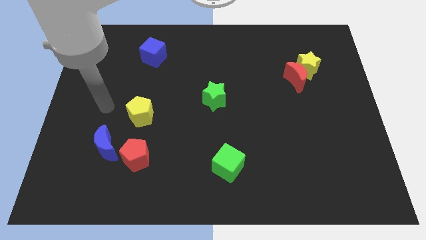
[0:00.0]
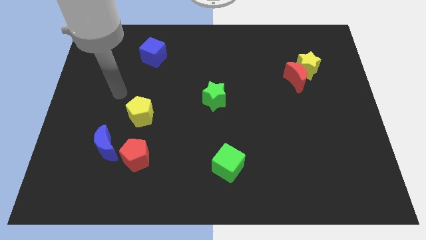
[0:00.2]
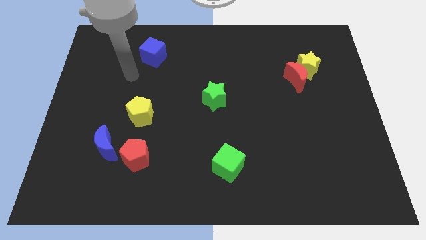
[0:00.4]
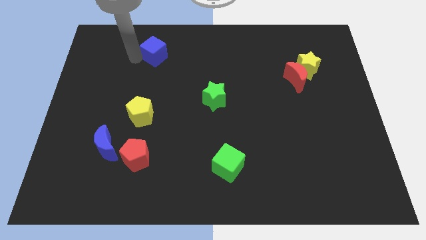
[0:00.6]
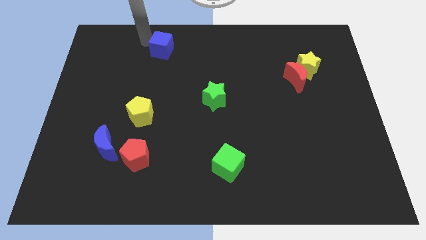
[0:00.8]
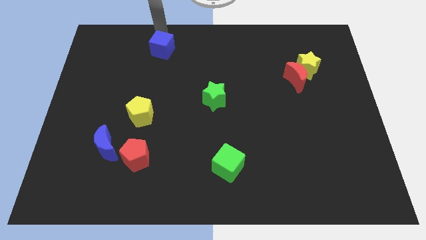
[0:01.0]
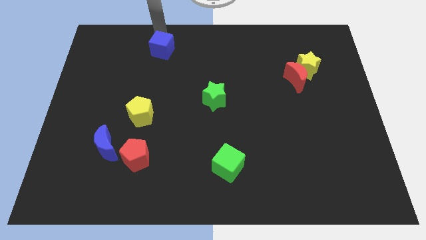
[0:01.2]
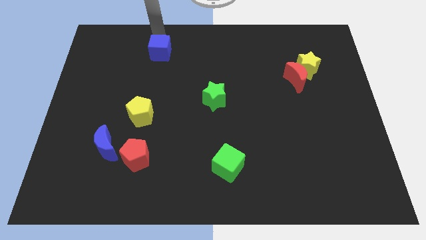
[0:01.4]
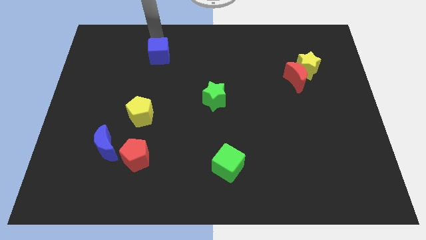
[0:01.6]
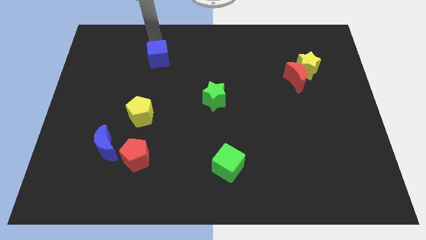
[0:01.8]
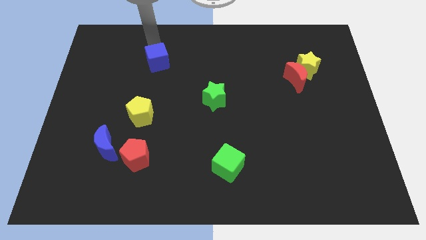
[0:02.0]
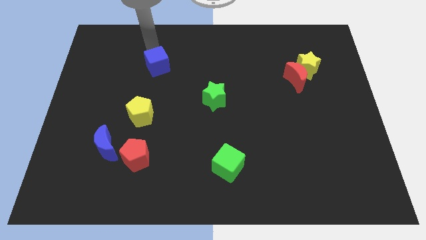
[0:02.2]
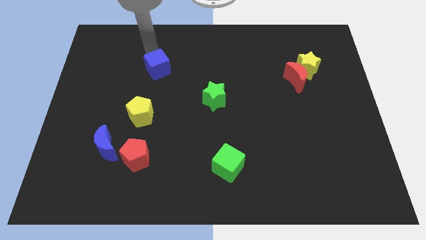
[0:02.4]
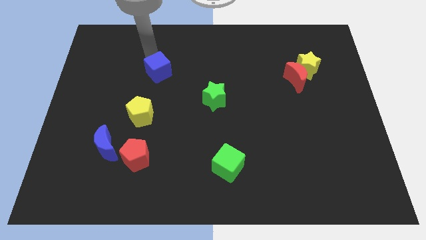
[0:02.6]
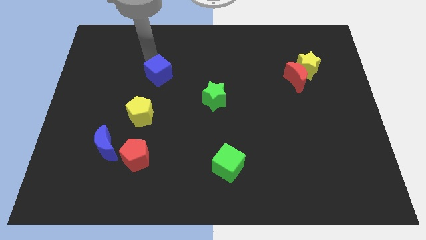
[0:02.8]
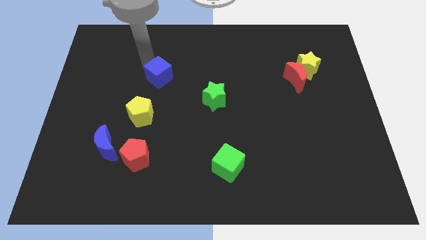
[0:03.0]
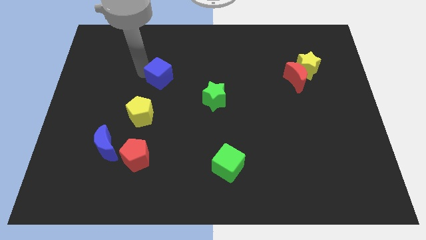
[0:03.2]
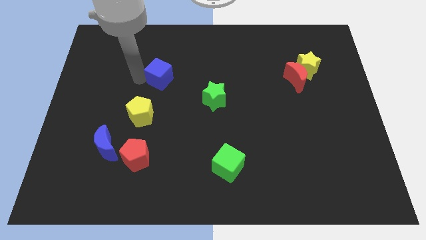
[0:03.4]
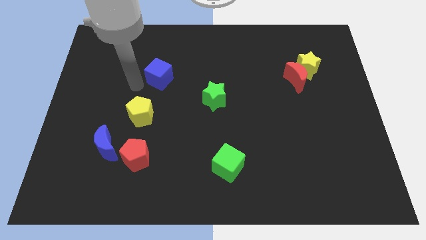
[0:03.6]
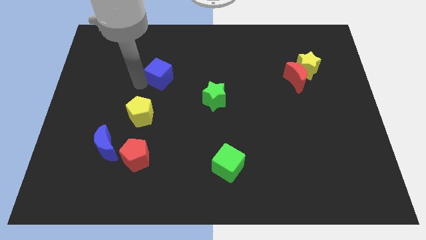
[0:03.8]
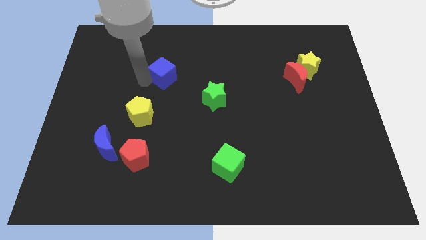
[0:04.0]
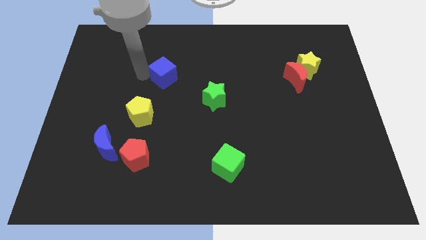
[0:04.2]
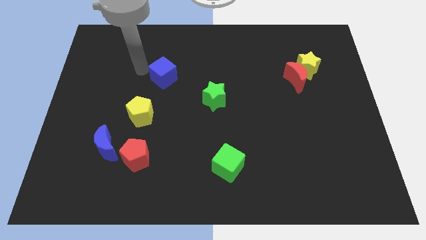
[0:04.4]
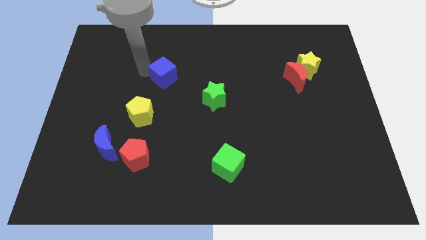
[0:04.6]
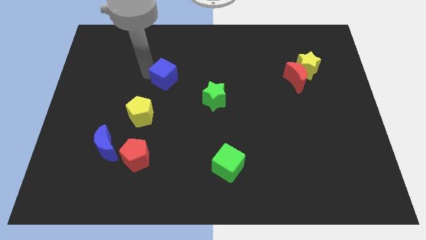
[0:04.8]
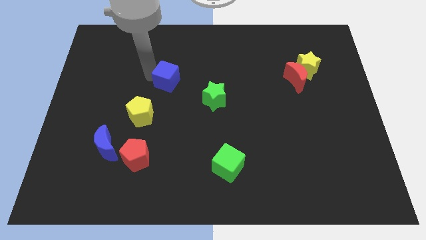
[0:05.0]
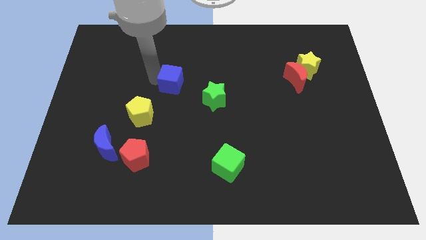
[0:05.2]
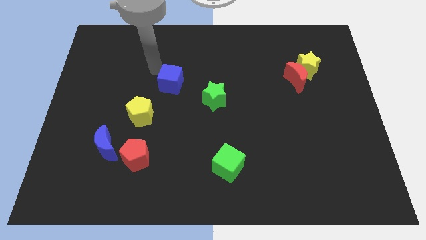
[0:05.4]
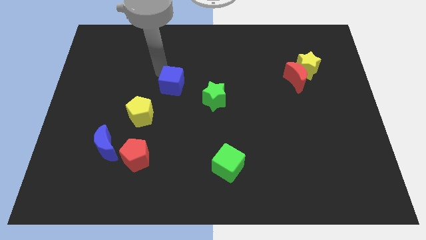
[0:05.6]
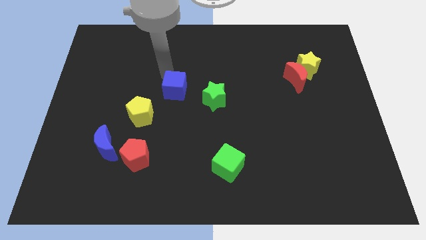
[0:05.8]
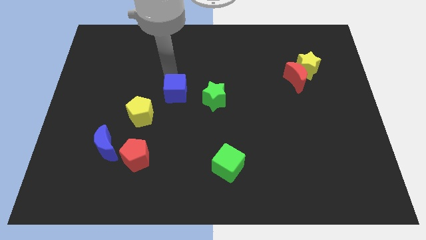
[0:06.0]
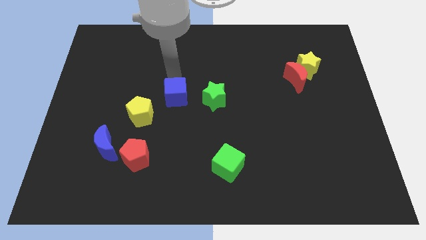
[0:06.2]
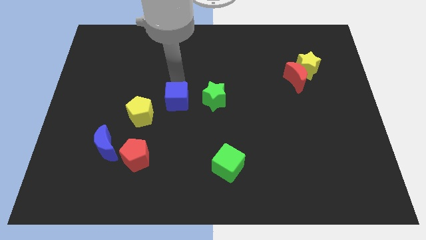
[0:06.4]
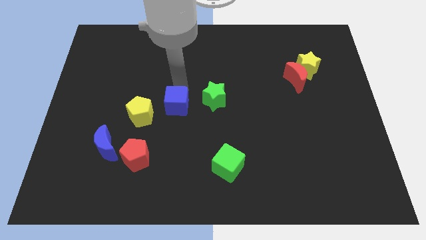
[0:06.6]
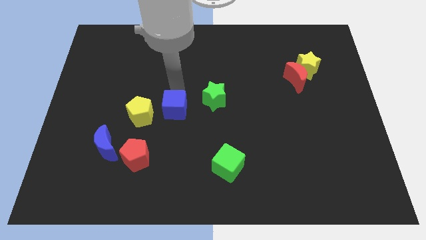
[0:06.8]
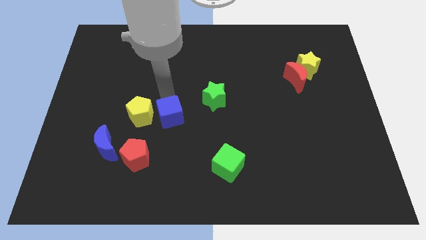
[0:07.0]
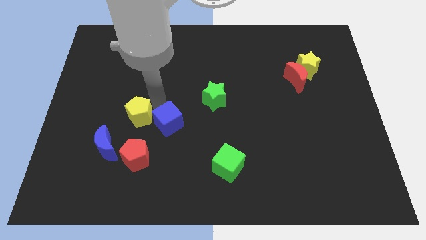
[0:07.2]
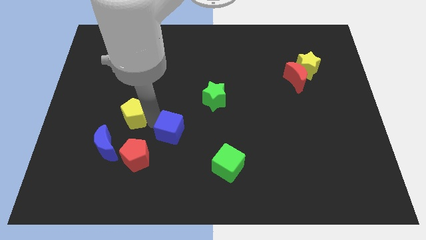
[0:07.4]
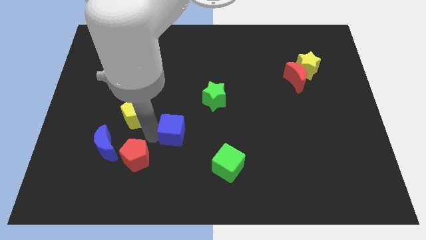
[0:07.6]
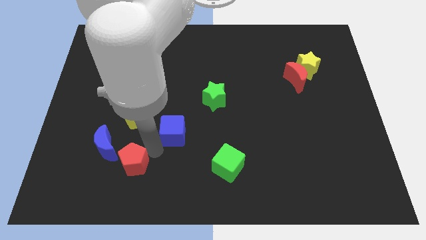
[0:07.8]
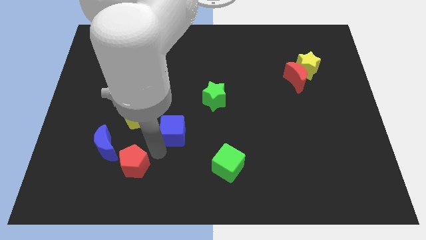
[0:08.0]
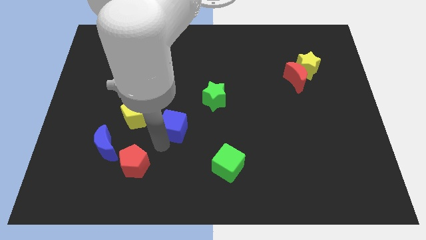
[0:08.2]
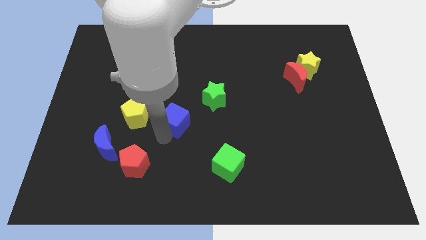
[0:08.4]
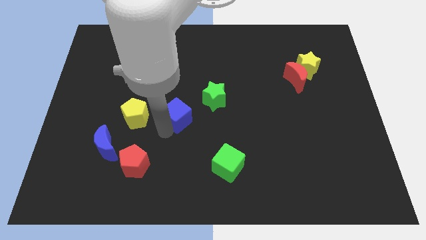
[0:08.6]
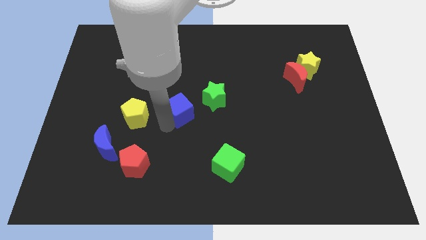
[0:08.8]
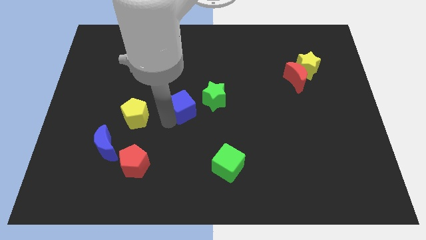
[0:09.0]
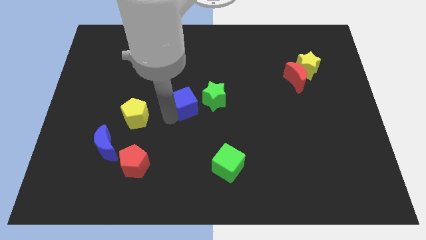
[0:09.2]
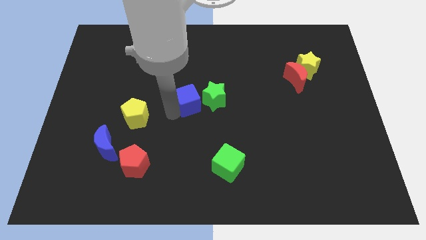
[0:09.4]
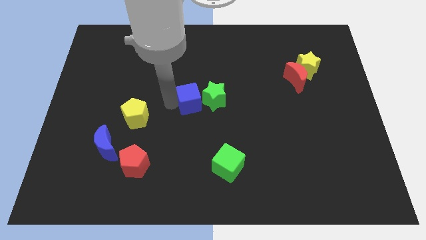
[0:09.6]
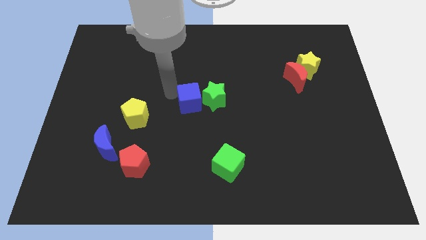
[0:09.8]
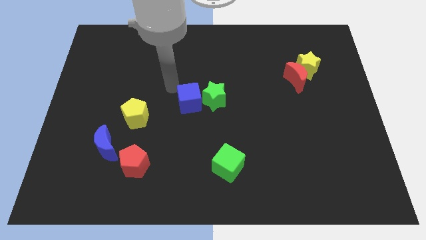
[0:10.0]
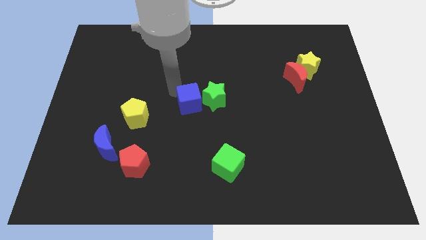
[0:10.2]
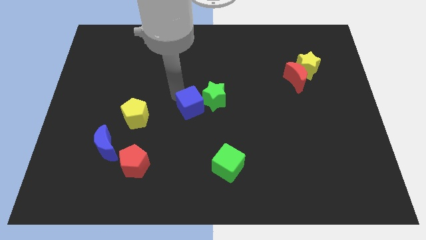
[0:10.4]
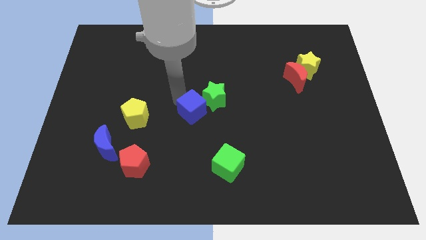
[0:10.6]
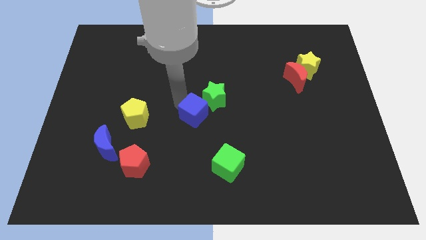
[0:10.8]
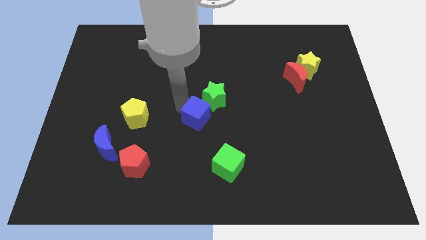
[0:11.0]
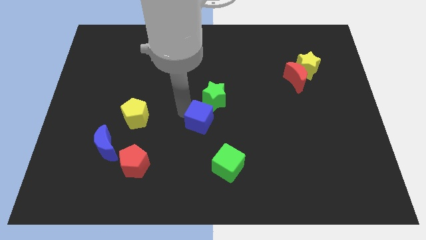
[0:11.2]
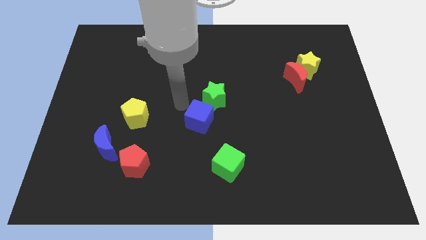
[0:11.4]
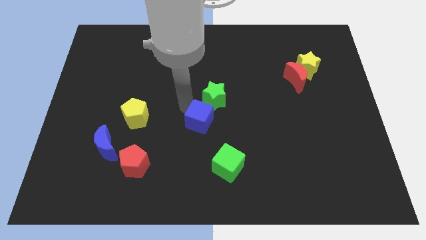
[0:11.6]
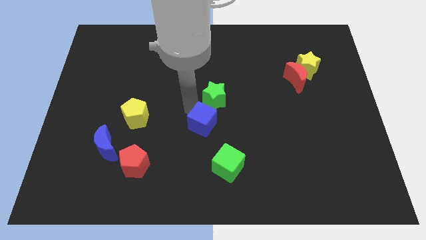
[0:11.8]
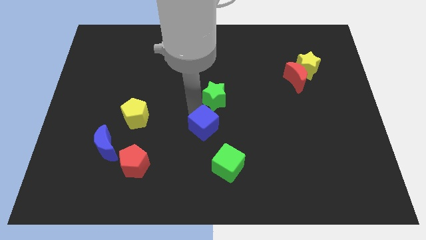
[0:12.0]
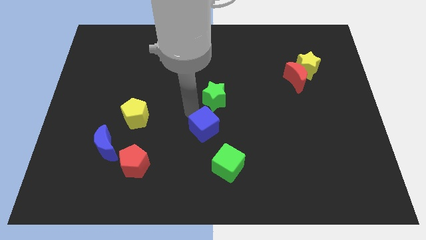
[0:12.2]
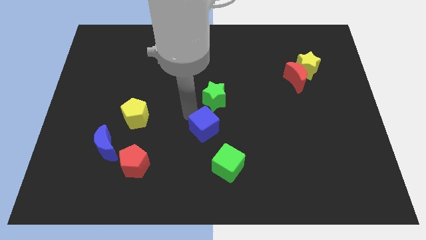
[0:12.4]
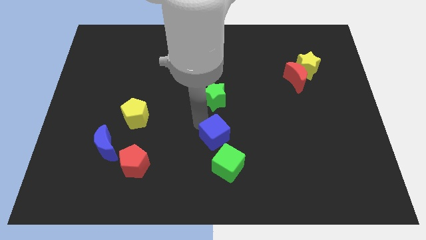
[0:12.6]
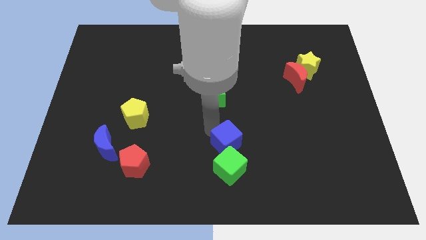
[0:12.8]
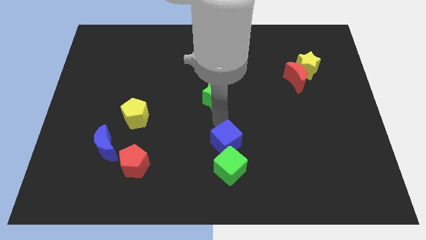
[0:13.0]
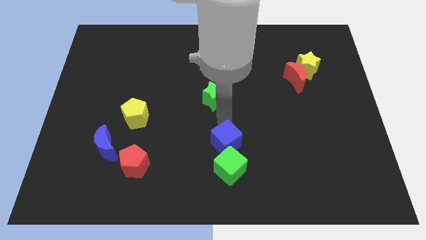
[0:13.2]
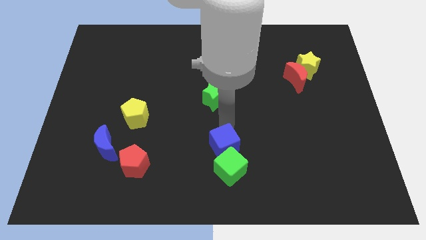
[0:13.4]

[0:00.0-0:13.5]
move the blue cube towards the green cube

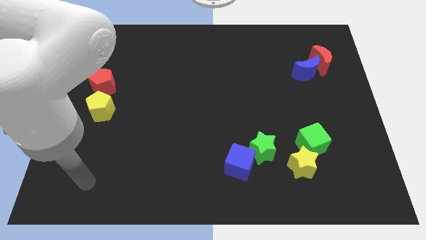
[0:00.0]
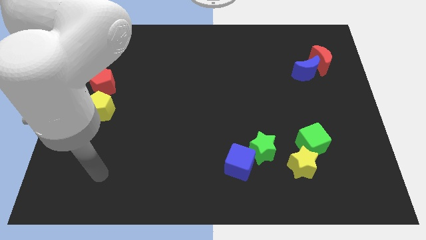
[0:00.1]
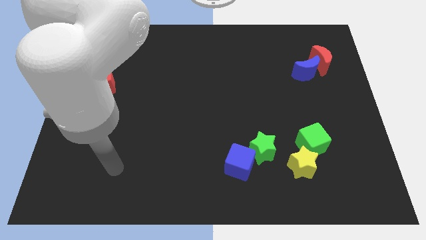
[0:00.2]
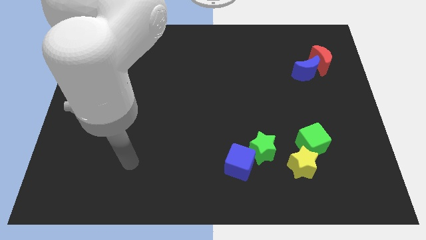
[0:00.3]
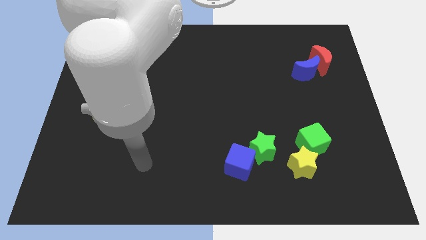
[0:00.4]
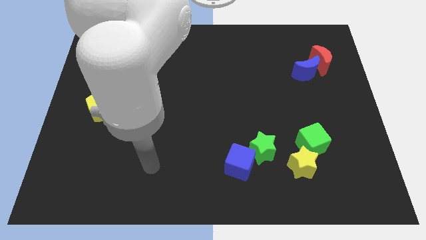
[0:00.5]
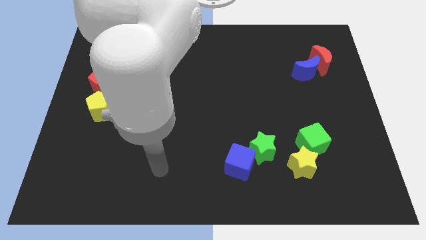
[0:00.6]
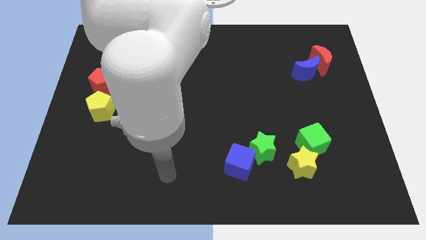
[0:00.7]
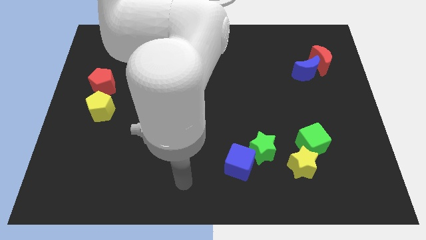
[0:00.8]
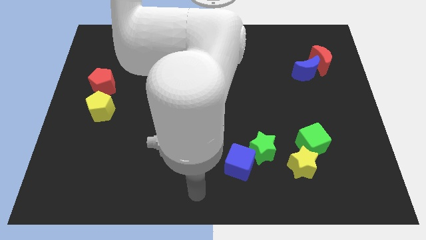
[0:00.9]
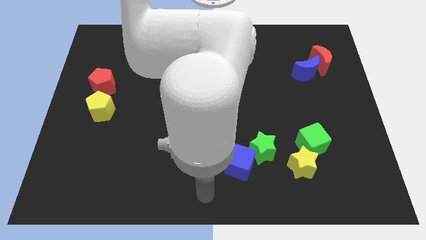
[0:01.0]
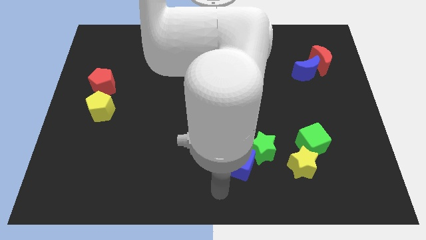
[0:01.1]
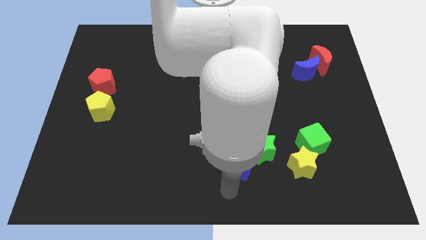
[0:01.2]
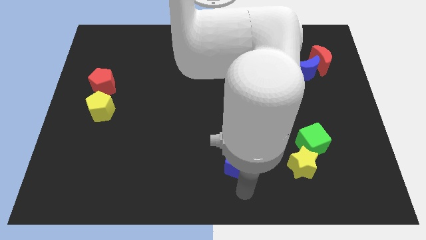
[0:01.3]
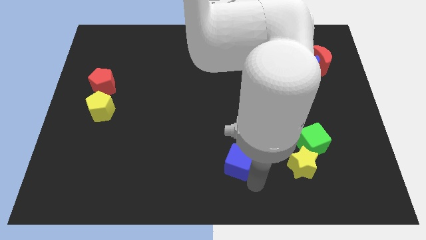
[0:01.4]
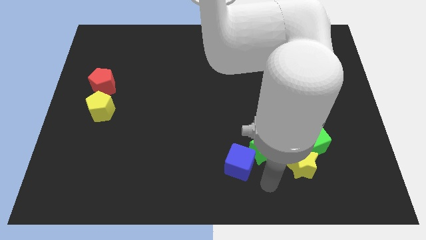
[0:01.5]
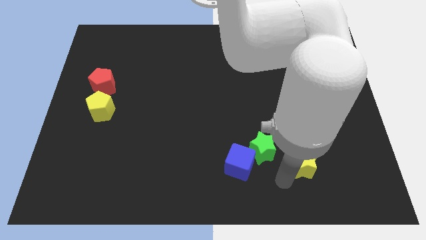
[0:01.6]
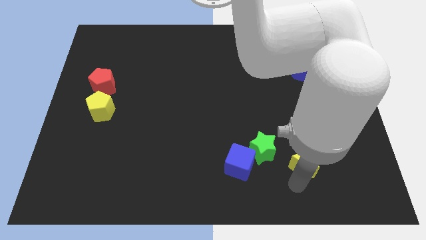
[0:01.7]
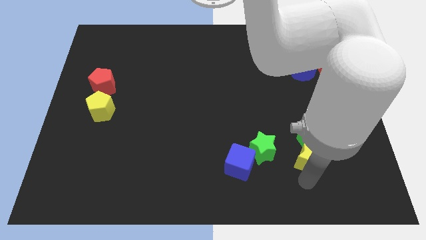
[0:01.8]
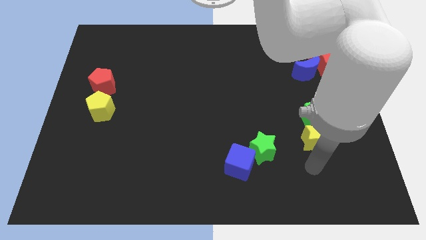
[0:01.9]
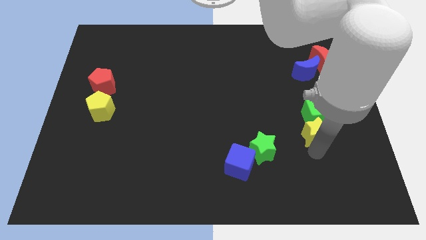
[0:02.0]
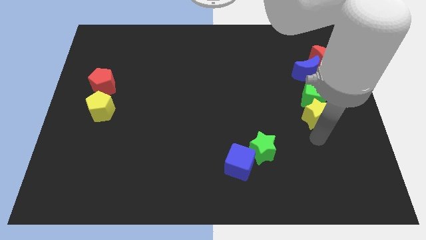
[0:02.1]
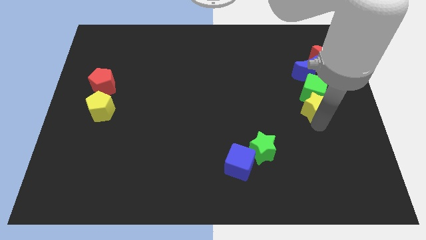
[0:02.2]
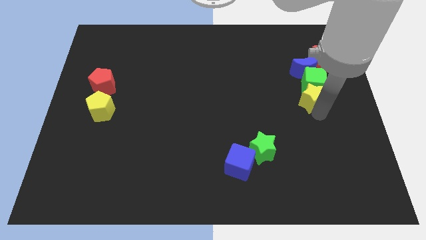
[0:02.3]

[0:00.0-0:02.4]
push the green cube next to the blue moon
